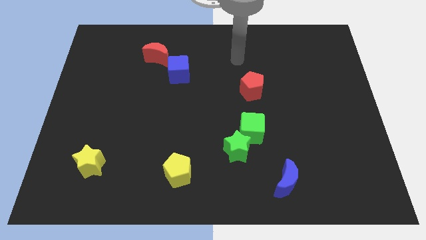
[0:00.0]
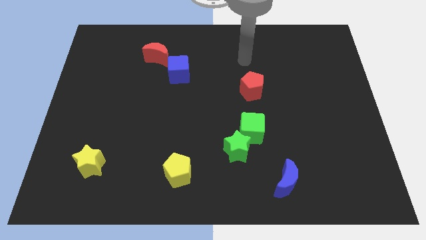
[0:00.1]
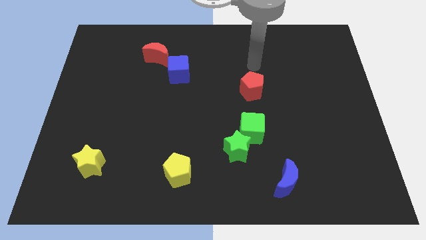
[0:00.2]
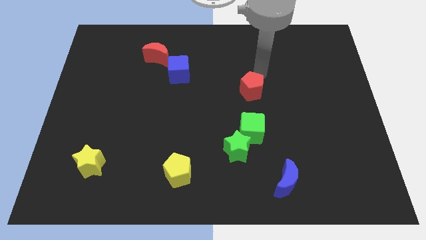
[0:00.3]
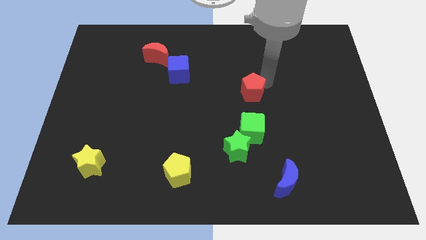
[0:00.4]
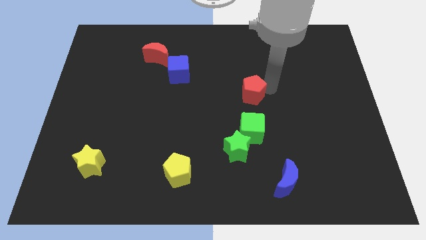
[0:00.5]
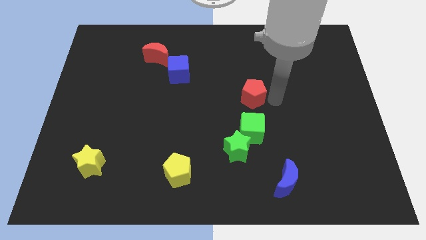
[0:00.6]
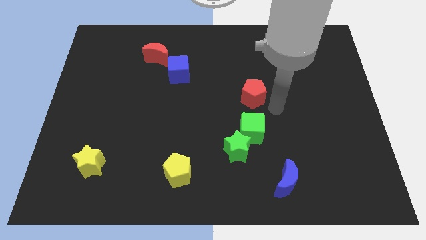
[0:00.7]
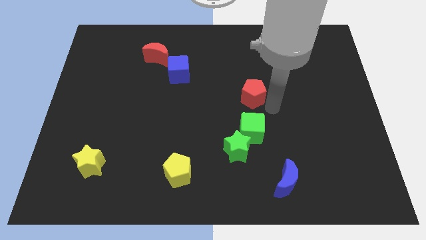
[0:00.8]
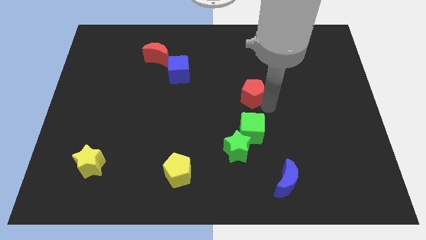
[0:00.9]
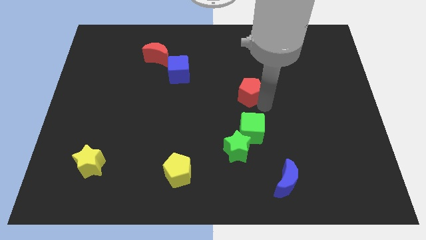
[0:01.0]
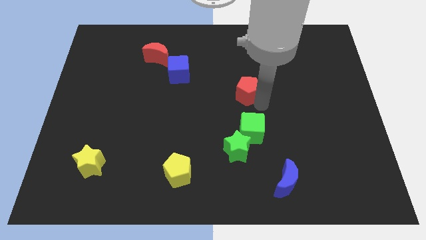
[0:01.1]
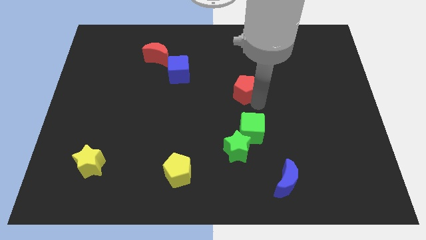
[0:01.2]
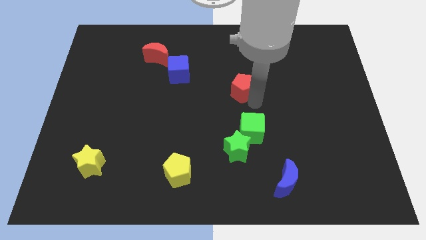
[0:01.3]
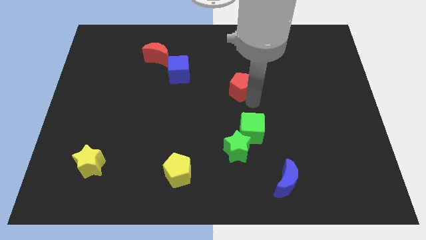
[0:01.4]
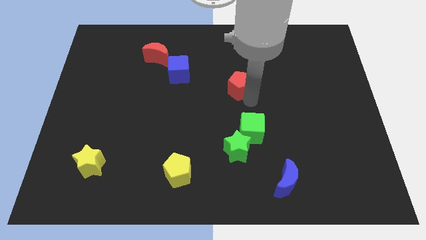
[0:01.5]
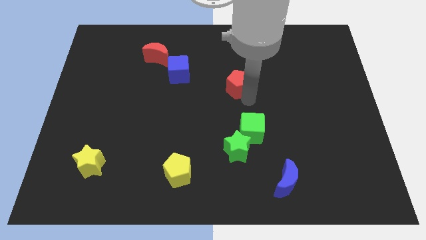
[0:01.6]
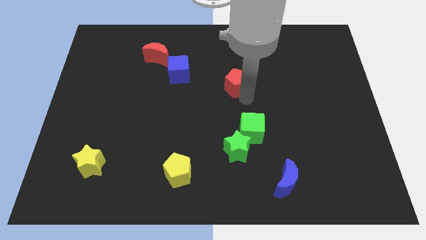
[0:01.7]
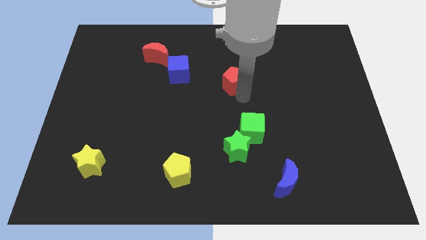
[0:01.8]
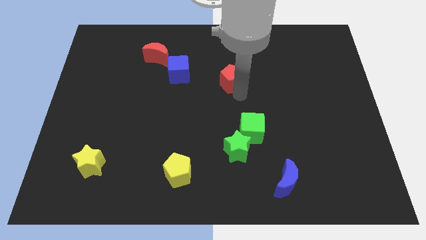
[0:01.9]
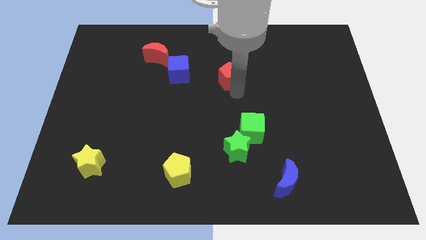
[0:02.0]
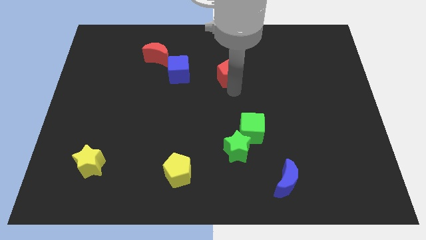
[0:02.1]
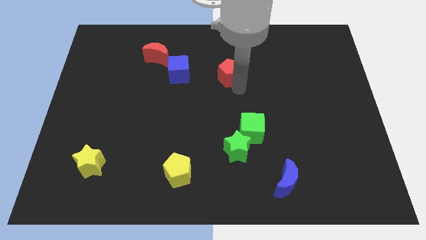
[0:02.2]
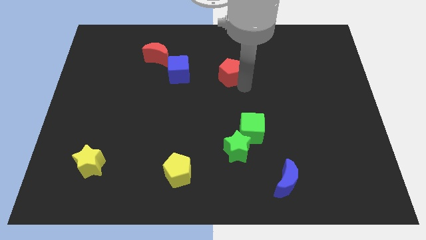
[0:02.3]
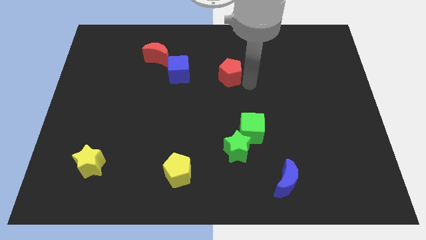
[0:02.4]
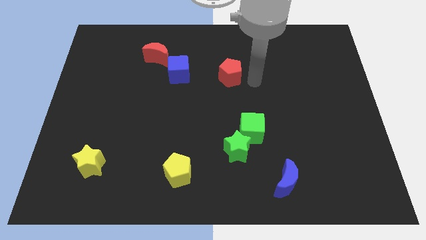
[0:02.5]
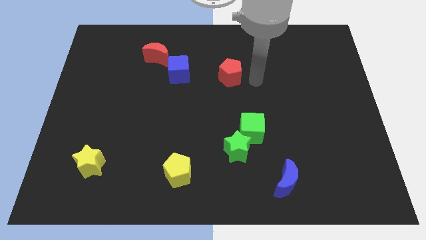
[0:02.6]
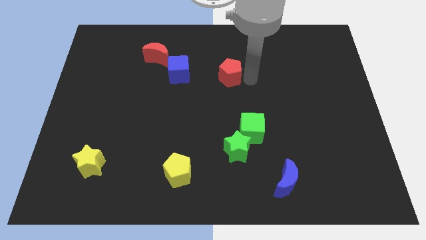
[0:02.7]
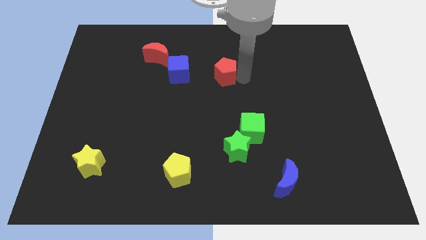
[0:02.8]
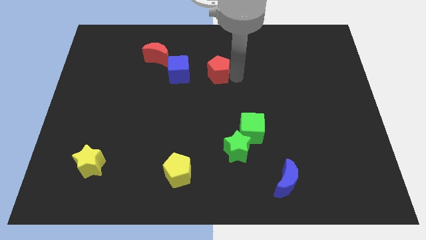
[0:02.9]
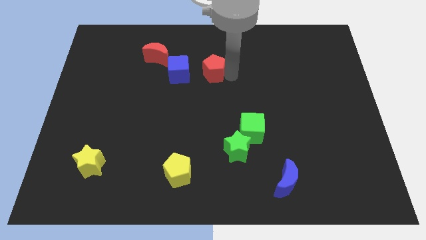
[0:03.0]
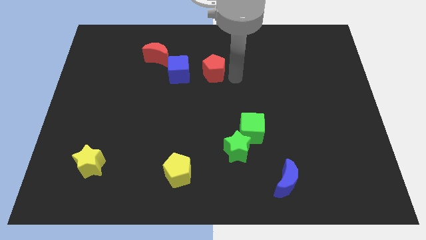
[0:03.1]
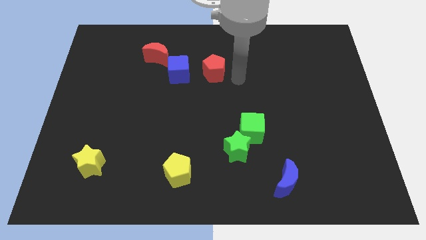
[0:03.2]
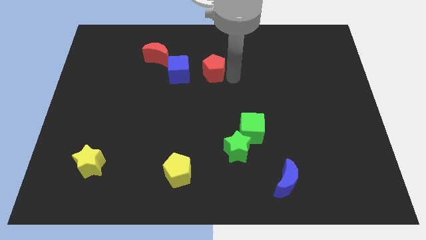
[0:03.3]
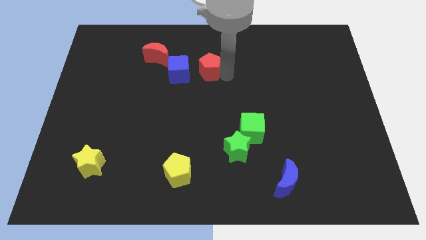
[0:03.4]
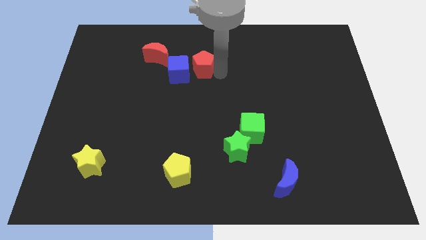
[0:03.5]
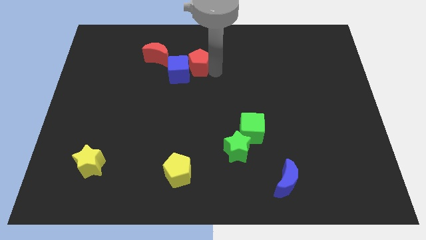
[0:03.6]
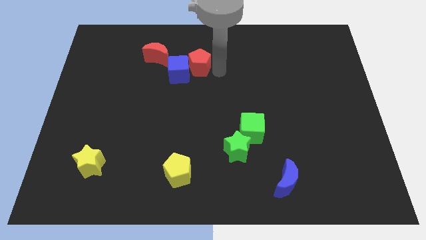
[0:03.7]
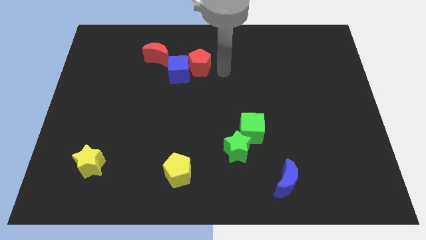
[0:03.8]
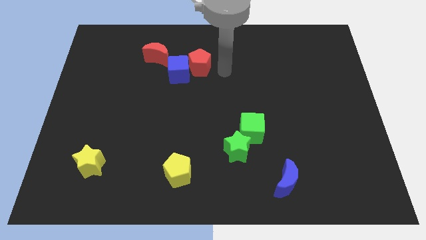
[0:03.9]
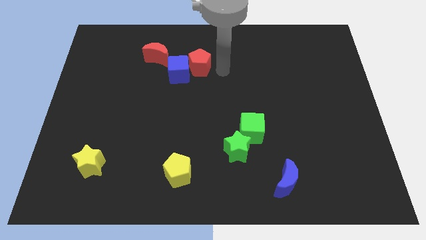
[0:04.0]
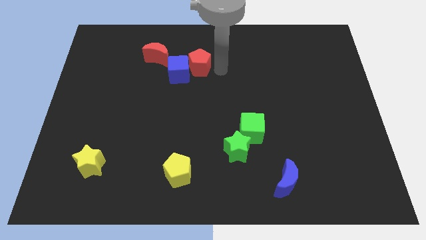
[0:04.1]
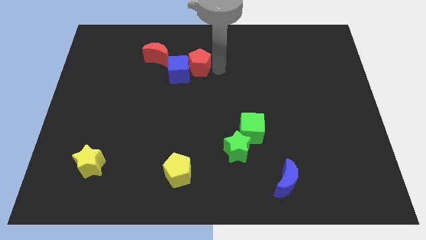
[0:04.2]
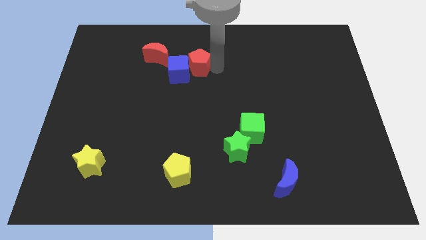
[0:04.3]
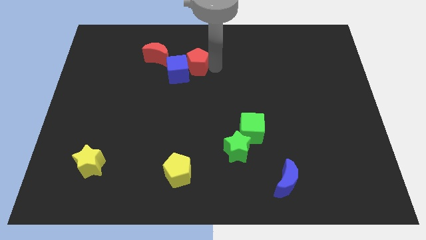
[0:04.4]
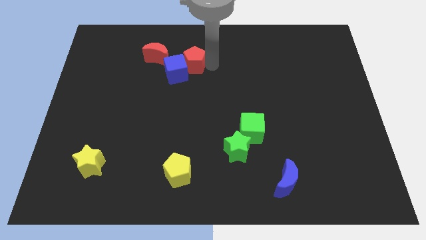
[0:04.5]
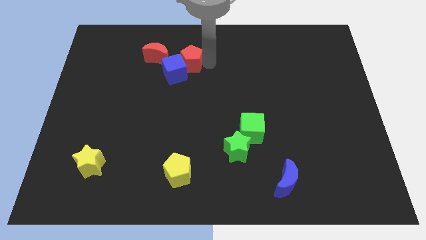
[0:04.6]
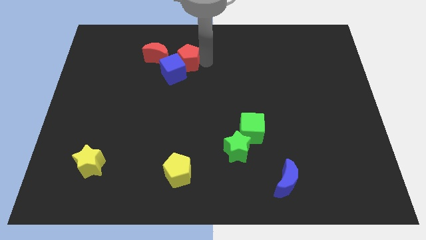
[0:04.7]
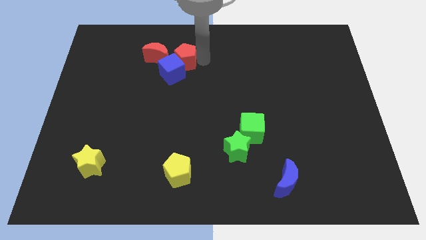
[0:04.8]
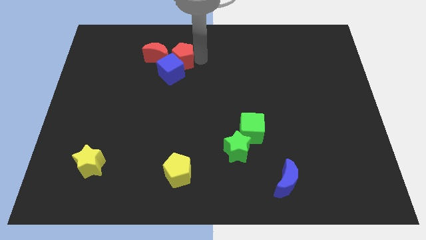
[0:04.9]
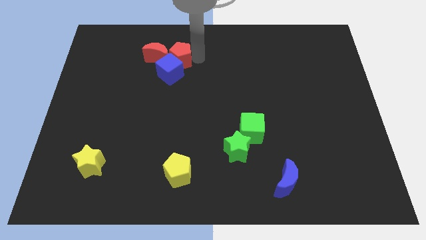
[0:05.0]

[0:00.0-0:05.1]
put the red pentagon to the red moon

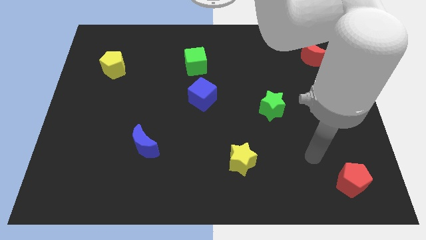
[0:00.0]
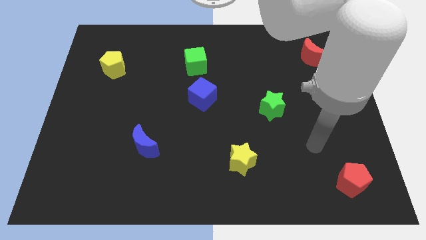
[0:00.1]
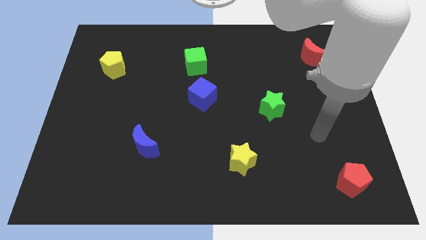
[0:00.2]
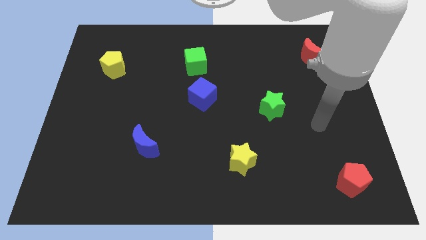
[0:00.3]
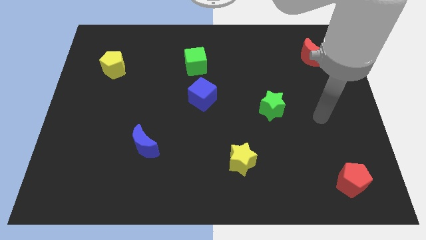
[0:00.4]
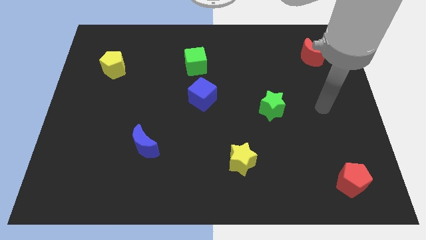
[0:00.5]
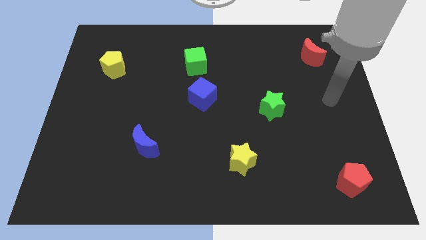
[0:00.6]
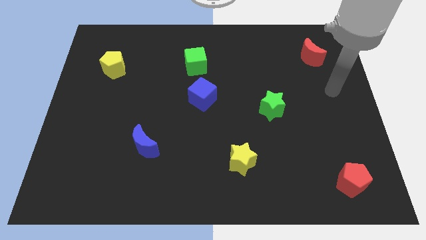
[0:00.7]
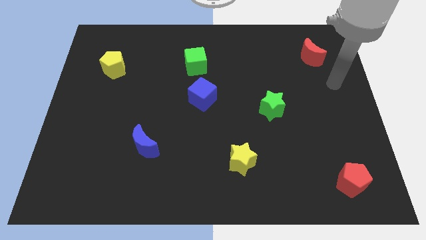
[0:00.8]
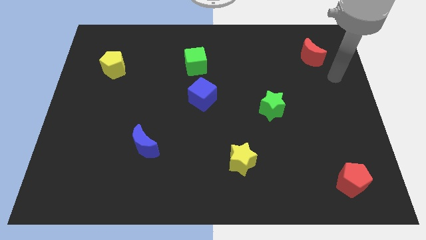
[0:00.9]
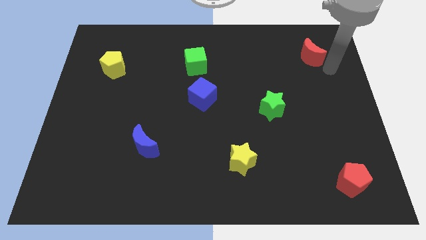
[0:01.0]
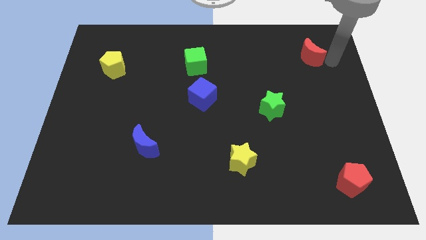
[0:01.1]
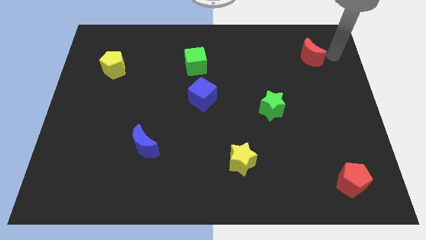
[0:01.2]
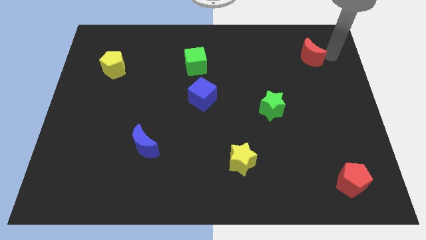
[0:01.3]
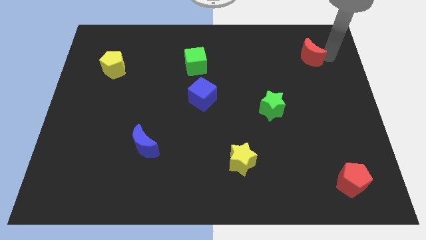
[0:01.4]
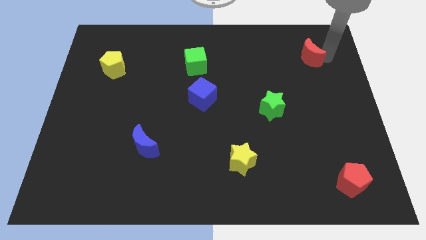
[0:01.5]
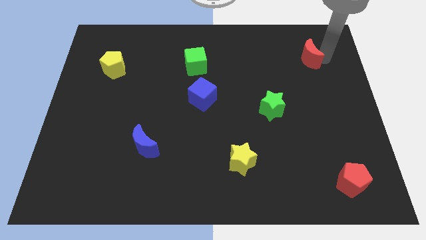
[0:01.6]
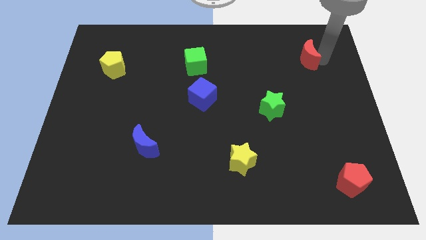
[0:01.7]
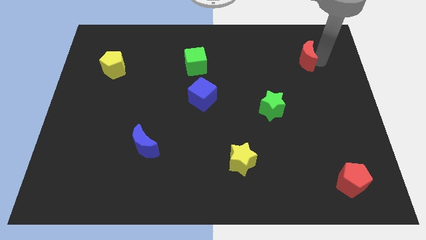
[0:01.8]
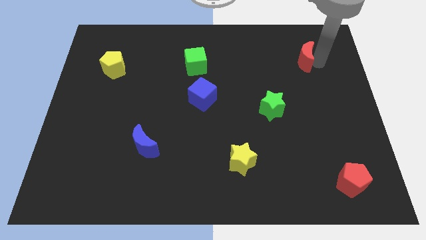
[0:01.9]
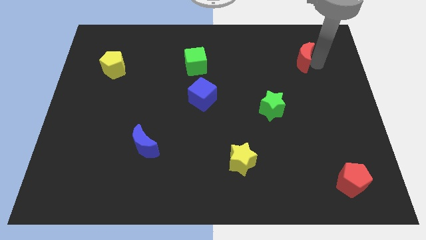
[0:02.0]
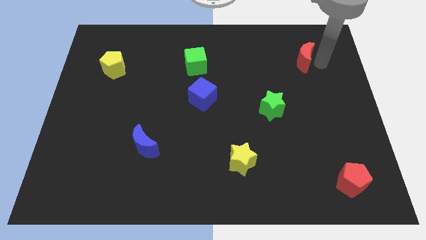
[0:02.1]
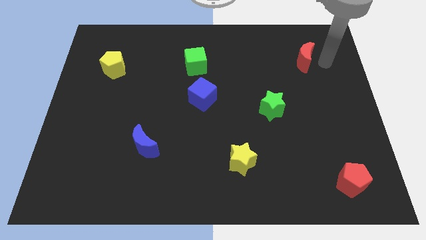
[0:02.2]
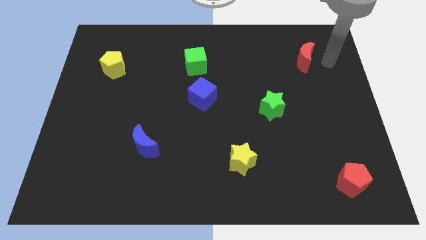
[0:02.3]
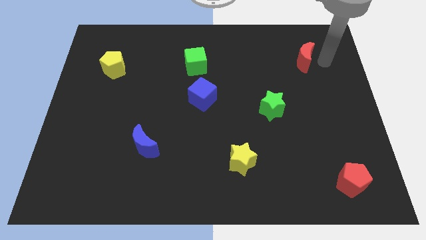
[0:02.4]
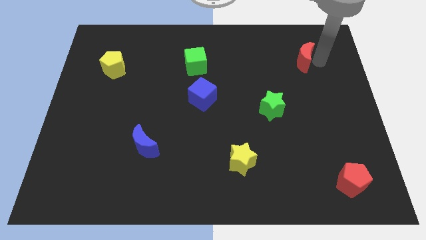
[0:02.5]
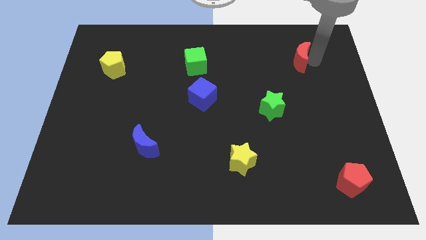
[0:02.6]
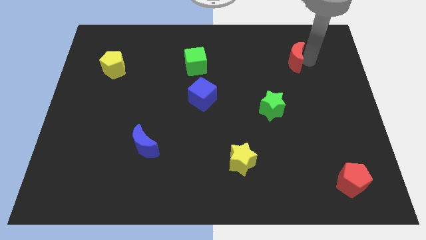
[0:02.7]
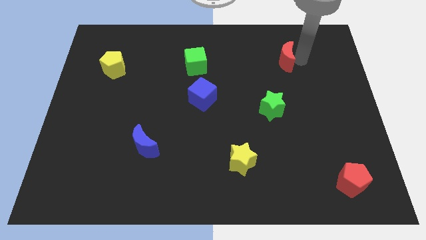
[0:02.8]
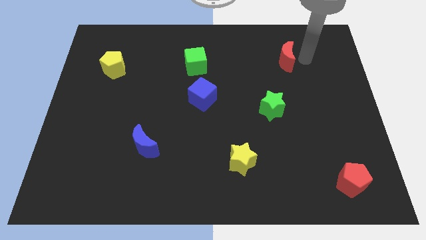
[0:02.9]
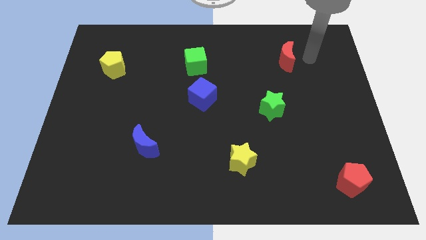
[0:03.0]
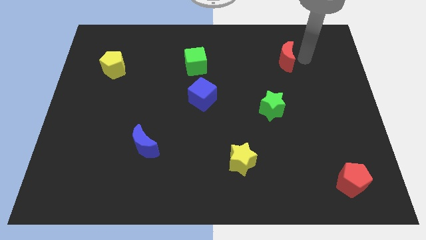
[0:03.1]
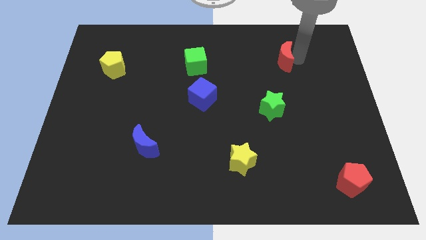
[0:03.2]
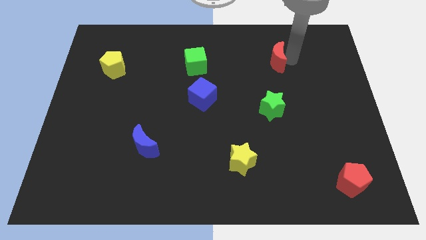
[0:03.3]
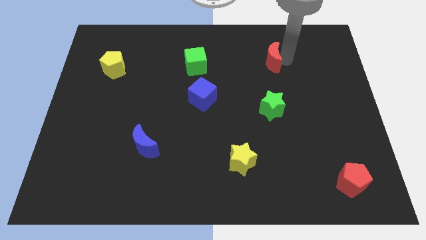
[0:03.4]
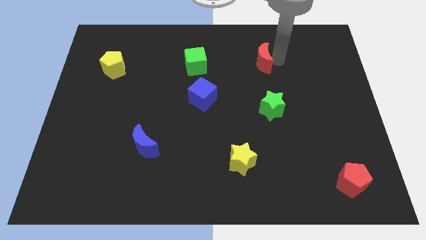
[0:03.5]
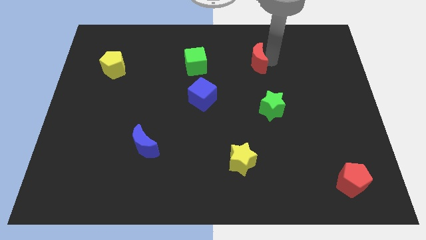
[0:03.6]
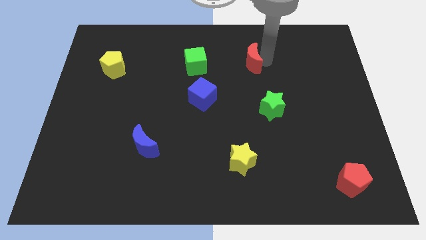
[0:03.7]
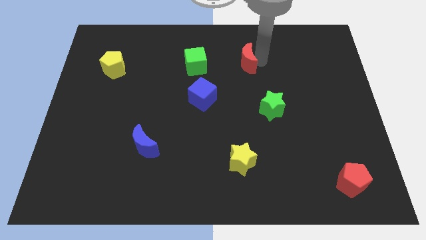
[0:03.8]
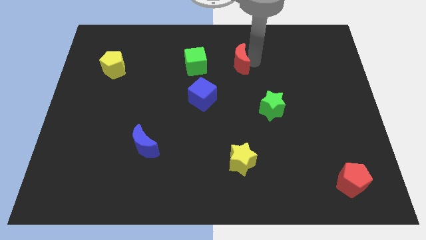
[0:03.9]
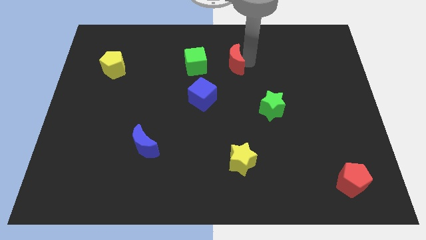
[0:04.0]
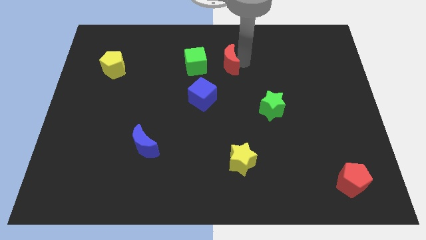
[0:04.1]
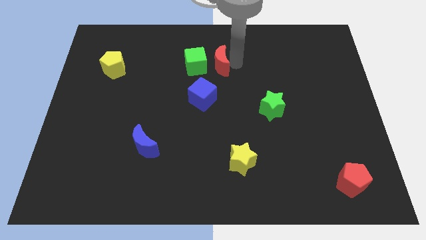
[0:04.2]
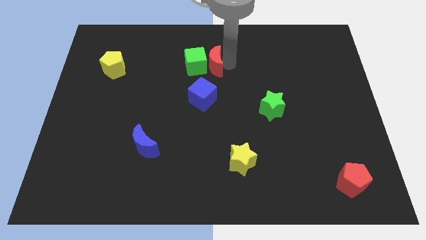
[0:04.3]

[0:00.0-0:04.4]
slide the red moon to the green cube
